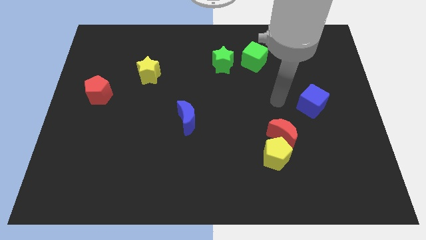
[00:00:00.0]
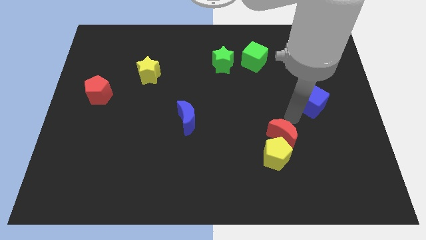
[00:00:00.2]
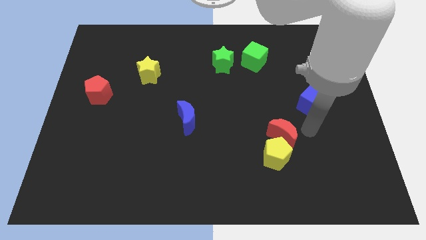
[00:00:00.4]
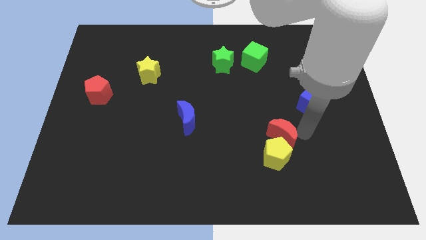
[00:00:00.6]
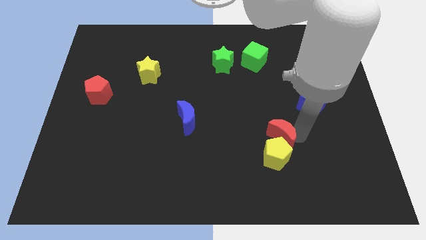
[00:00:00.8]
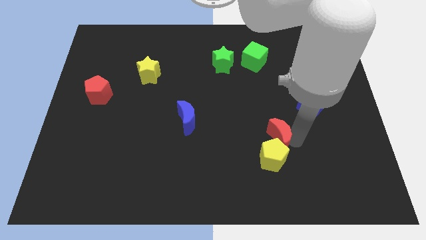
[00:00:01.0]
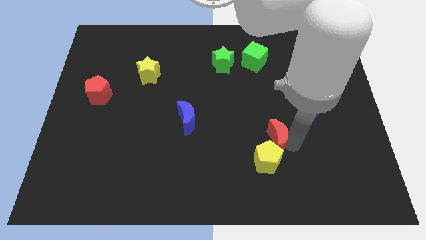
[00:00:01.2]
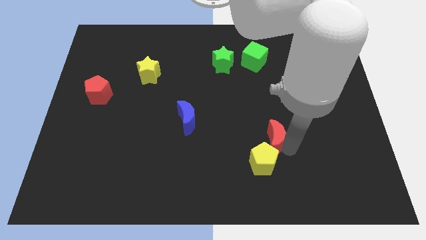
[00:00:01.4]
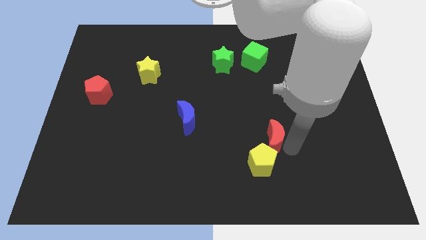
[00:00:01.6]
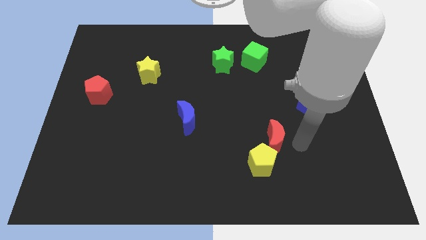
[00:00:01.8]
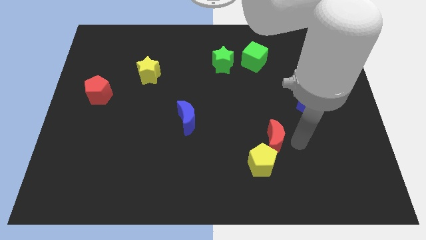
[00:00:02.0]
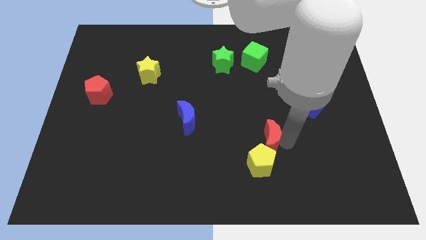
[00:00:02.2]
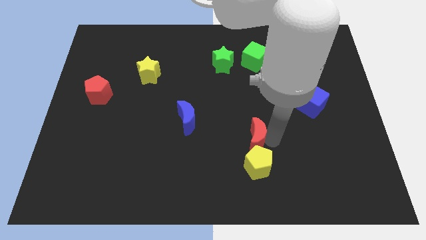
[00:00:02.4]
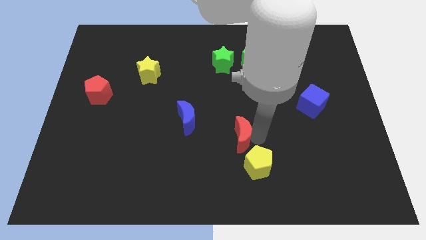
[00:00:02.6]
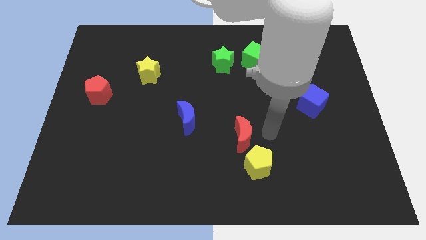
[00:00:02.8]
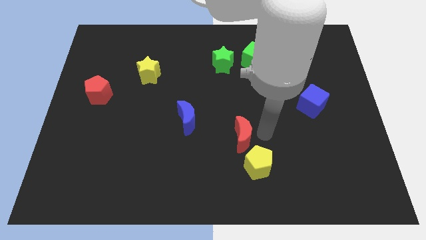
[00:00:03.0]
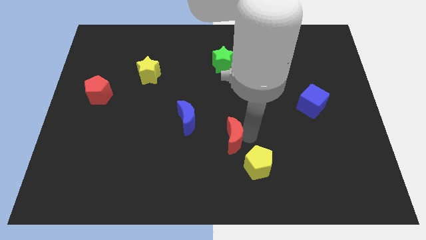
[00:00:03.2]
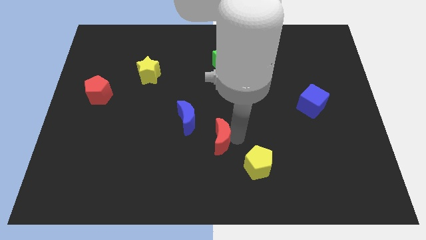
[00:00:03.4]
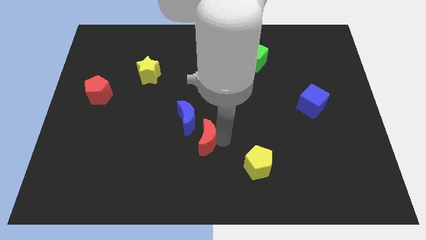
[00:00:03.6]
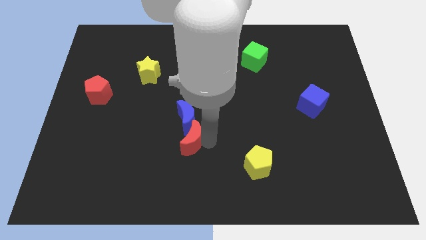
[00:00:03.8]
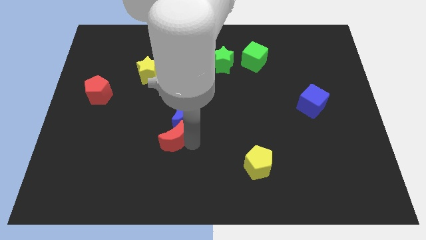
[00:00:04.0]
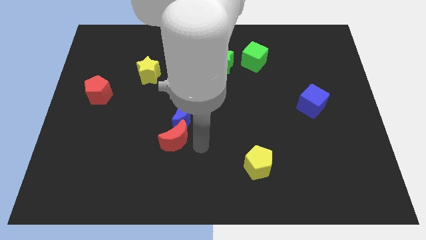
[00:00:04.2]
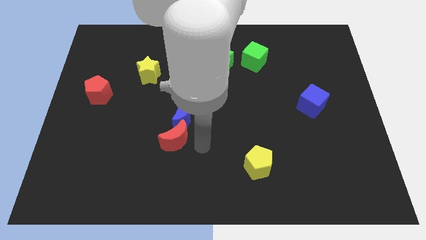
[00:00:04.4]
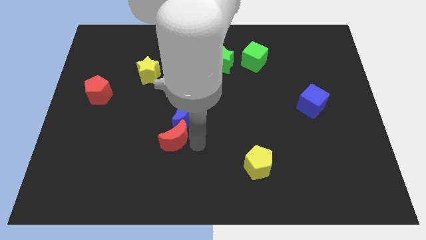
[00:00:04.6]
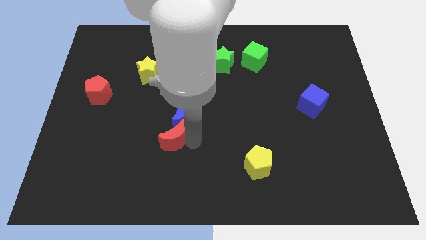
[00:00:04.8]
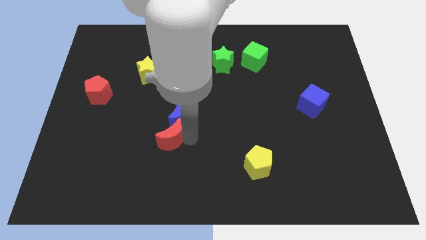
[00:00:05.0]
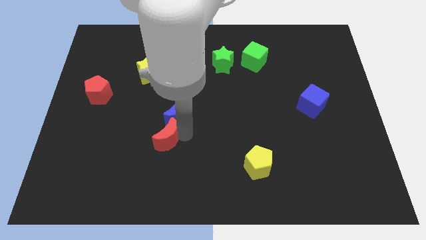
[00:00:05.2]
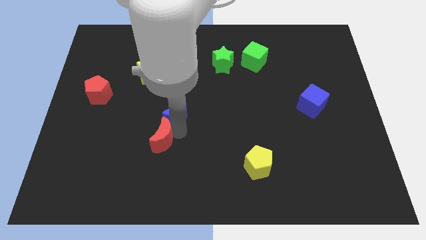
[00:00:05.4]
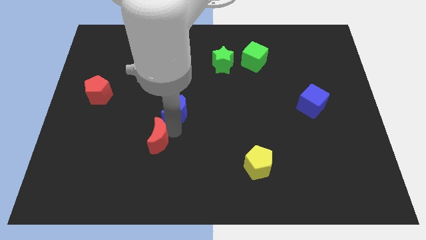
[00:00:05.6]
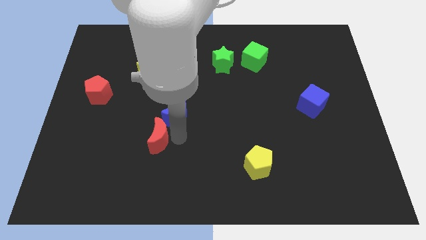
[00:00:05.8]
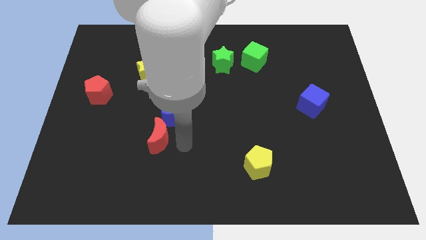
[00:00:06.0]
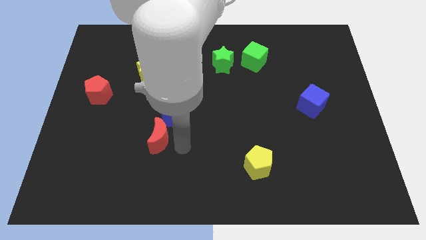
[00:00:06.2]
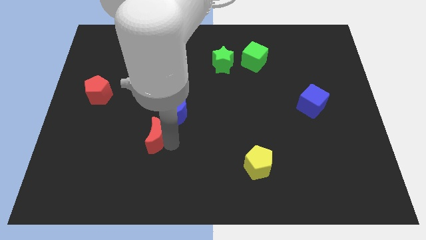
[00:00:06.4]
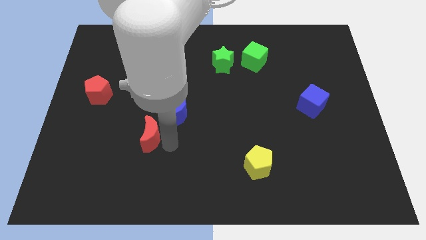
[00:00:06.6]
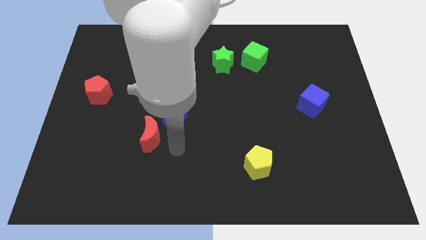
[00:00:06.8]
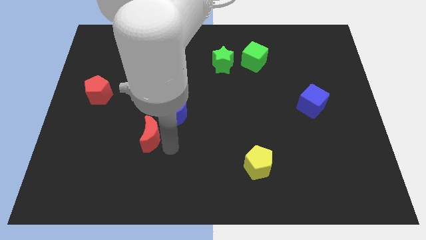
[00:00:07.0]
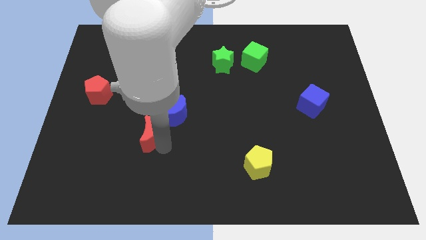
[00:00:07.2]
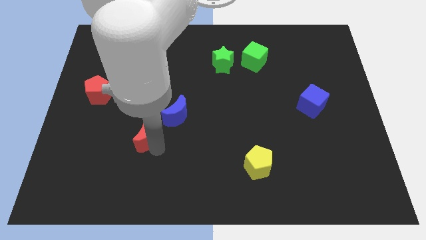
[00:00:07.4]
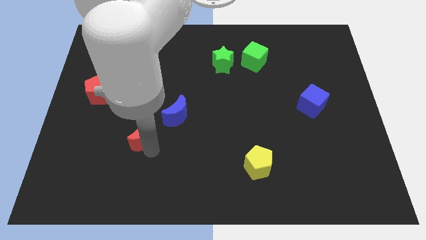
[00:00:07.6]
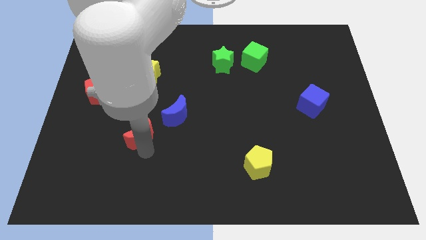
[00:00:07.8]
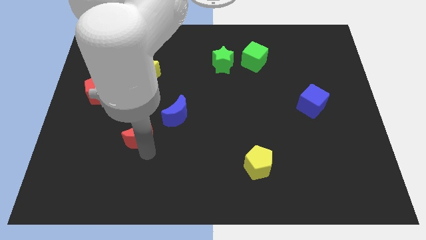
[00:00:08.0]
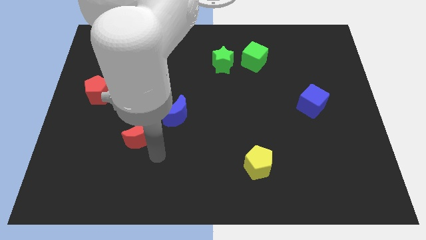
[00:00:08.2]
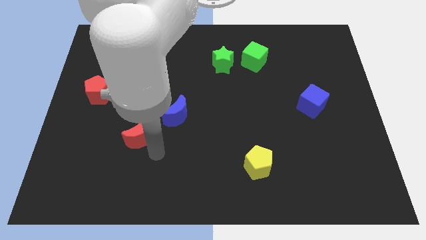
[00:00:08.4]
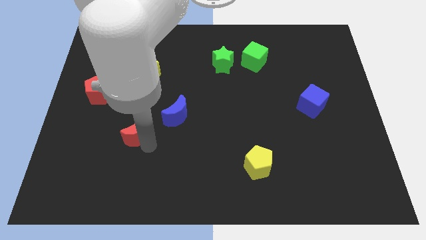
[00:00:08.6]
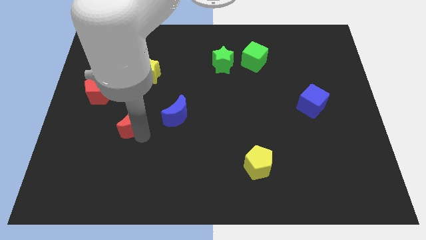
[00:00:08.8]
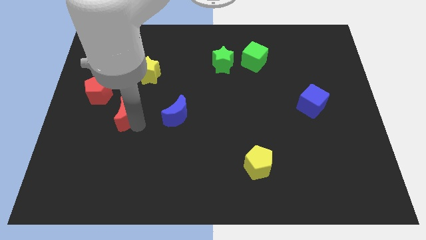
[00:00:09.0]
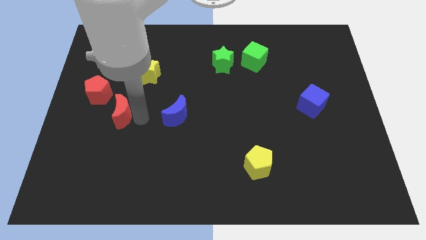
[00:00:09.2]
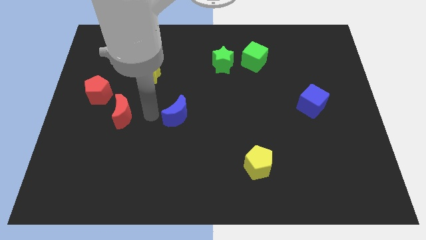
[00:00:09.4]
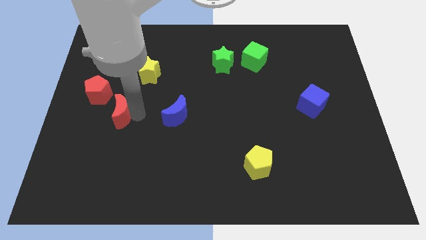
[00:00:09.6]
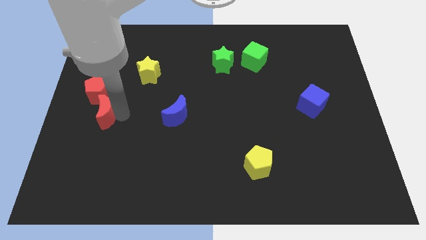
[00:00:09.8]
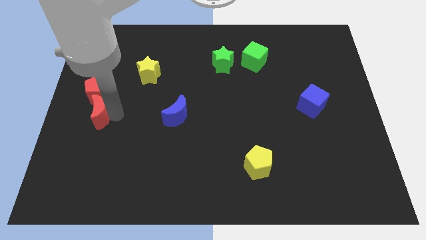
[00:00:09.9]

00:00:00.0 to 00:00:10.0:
put the red moon to the center left

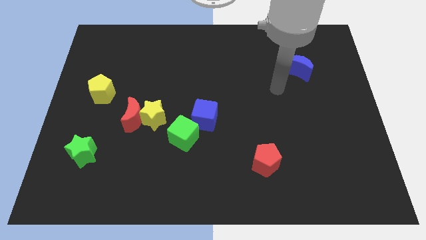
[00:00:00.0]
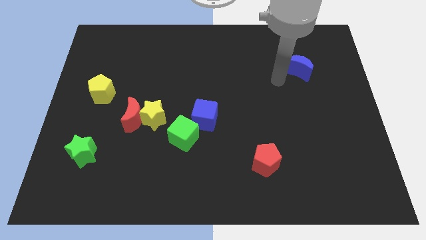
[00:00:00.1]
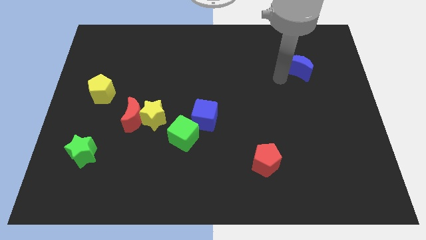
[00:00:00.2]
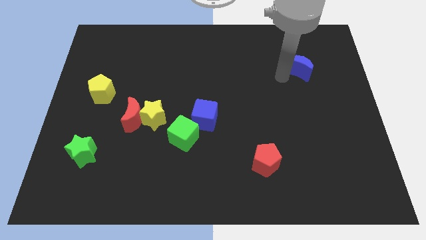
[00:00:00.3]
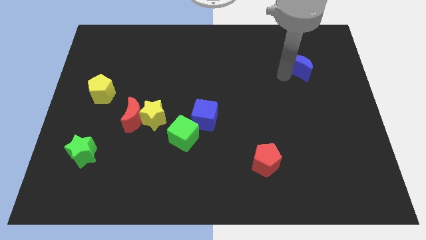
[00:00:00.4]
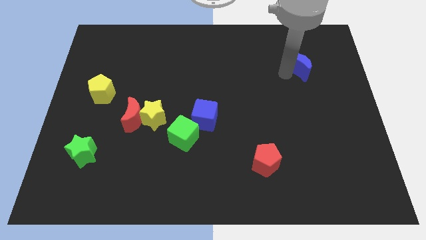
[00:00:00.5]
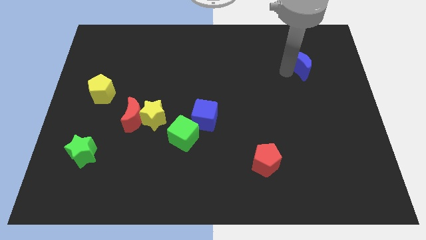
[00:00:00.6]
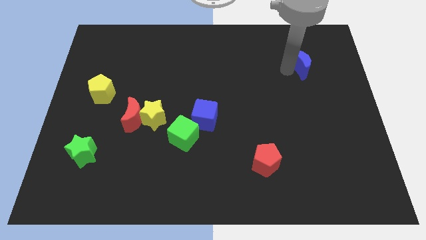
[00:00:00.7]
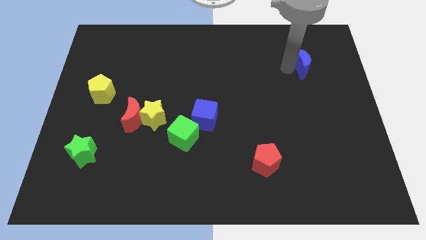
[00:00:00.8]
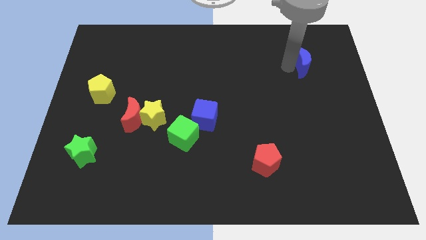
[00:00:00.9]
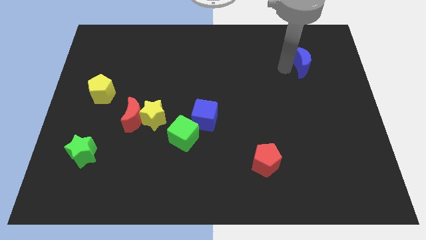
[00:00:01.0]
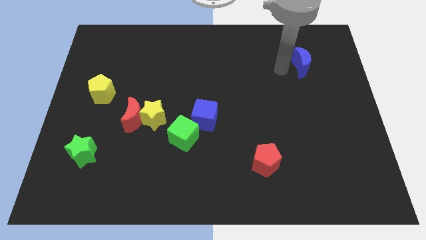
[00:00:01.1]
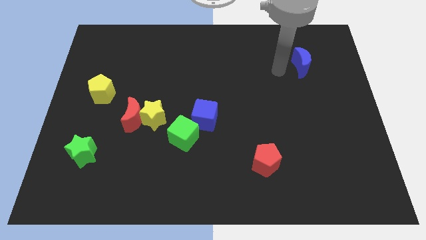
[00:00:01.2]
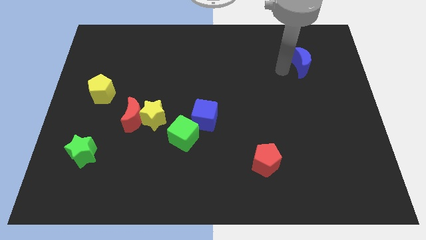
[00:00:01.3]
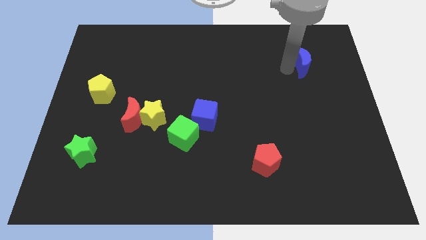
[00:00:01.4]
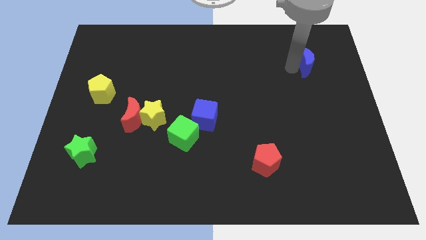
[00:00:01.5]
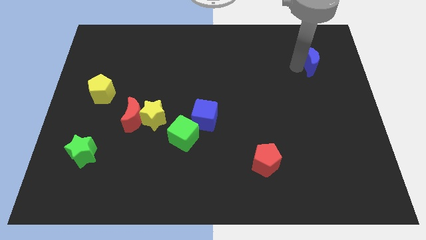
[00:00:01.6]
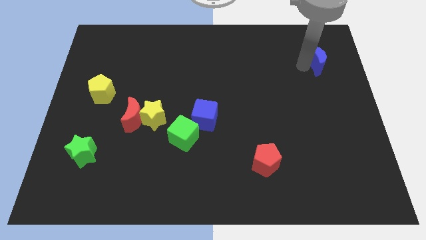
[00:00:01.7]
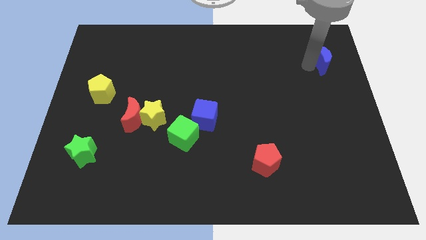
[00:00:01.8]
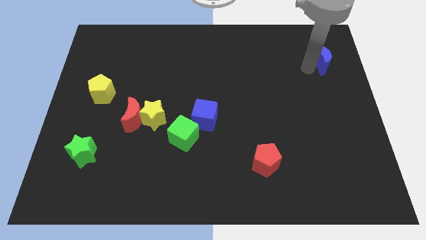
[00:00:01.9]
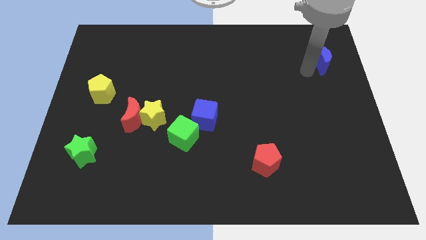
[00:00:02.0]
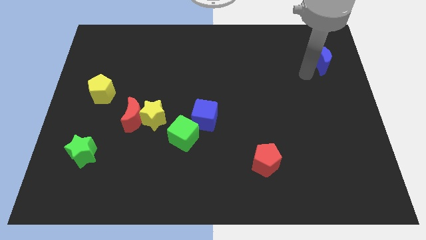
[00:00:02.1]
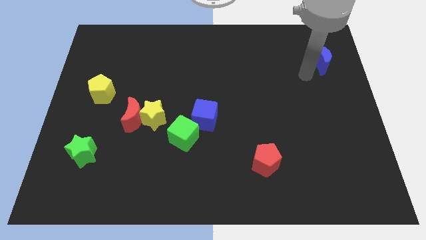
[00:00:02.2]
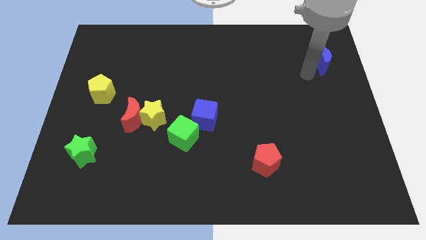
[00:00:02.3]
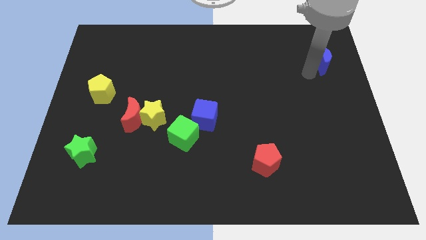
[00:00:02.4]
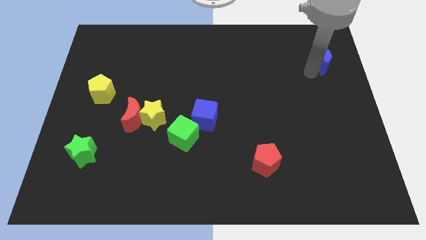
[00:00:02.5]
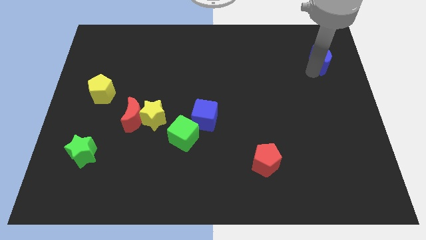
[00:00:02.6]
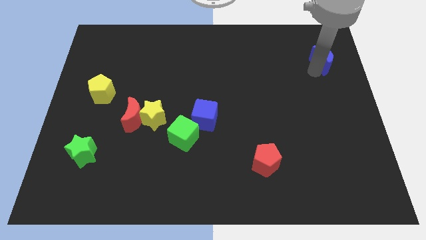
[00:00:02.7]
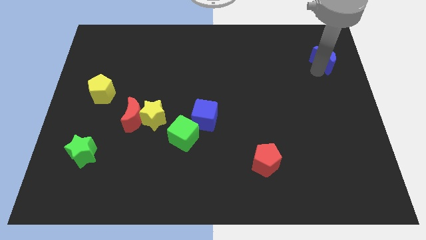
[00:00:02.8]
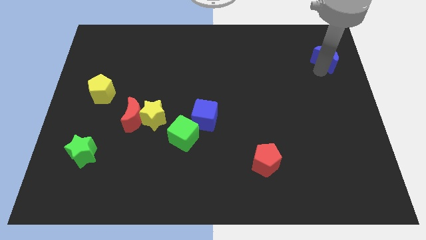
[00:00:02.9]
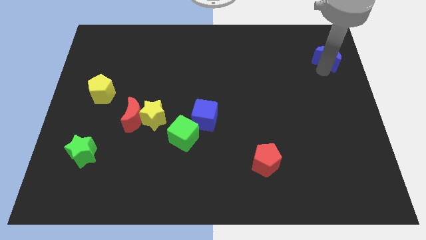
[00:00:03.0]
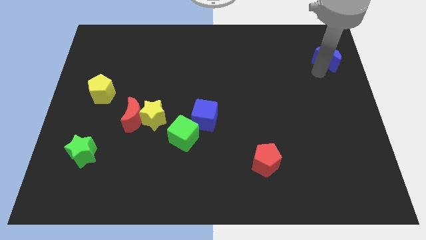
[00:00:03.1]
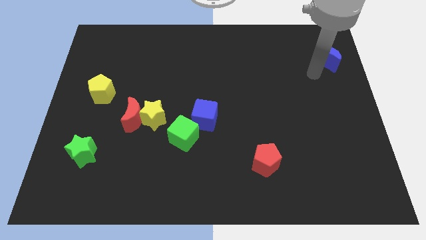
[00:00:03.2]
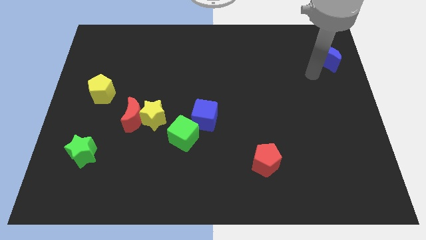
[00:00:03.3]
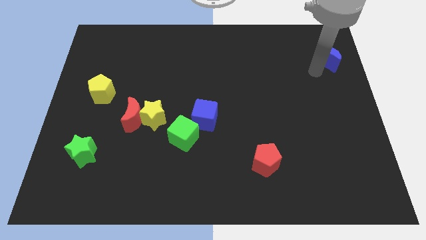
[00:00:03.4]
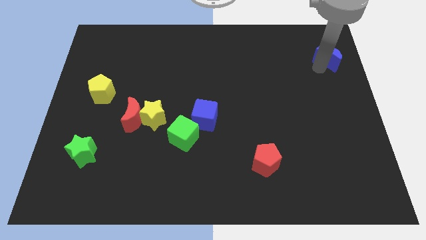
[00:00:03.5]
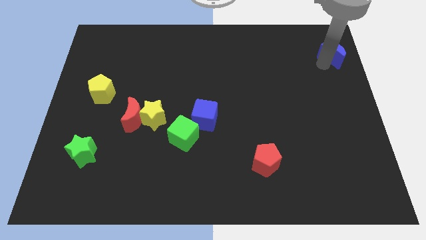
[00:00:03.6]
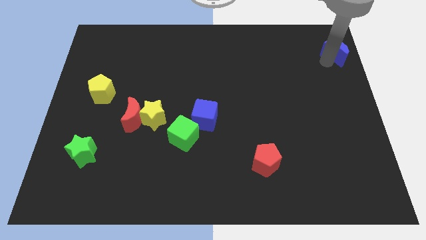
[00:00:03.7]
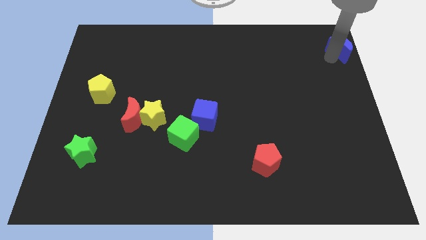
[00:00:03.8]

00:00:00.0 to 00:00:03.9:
move the blue moon to the top right
